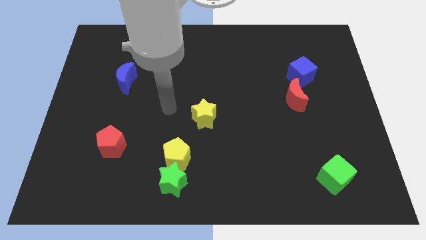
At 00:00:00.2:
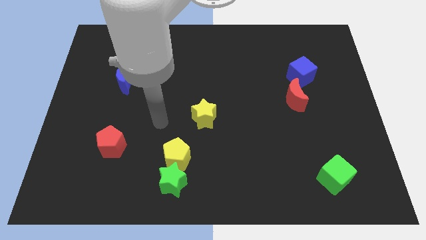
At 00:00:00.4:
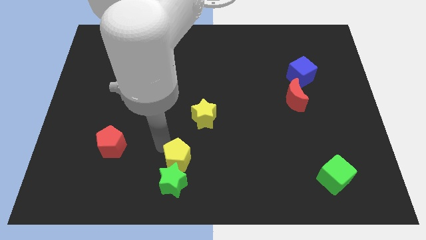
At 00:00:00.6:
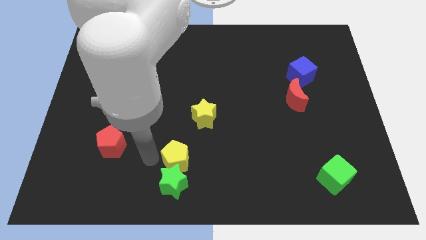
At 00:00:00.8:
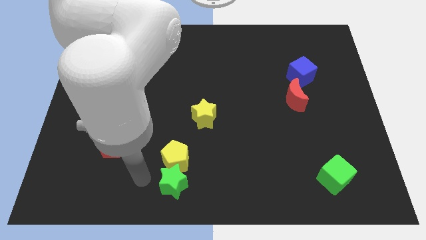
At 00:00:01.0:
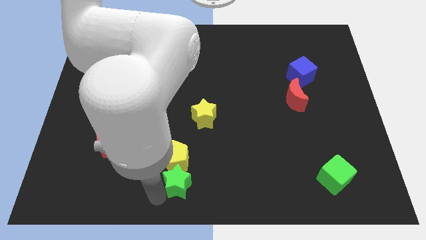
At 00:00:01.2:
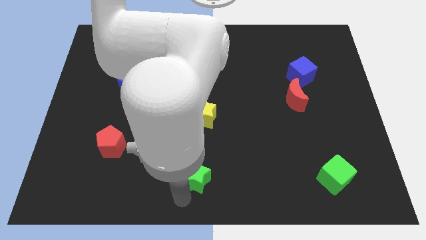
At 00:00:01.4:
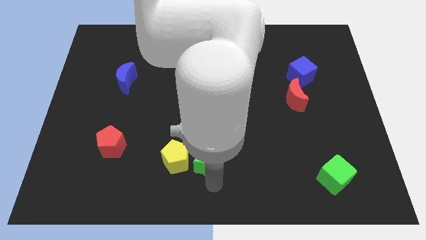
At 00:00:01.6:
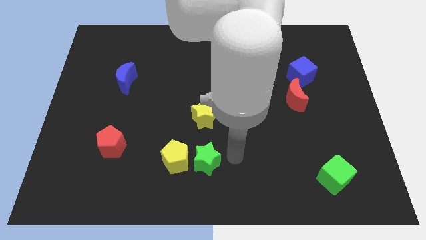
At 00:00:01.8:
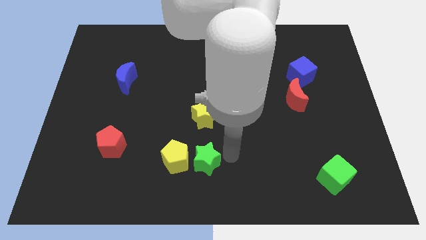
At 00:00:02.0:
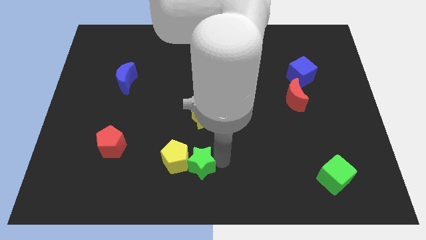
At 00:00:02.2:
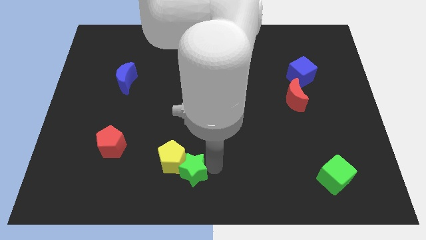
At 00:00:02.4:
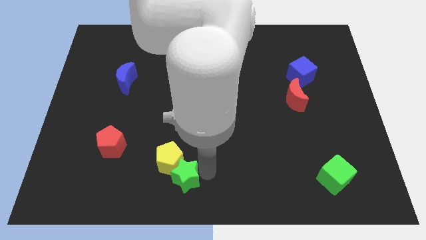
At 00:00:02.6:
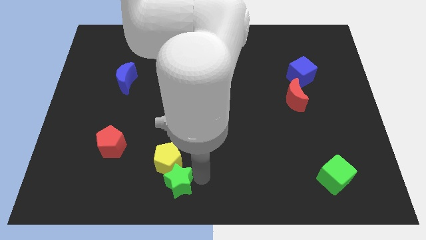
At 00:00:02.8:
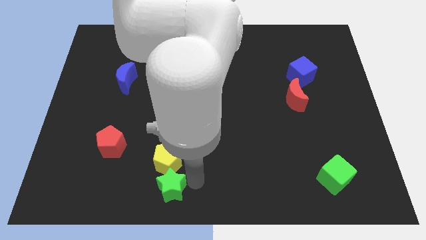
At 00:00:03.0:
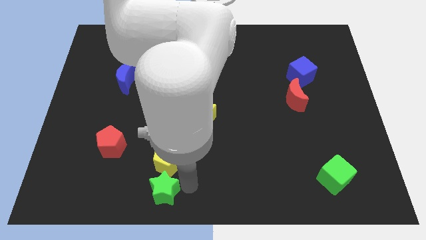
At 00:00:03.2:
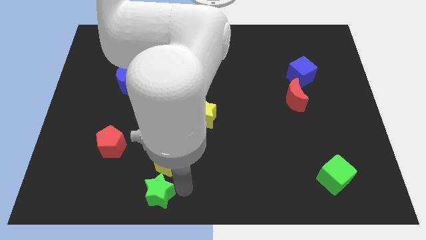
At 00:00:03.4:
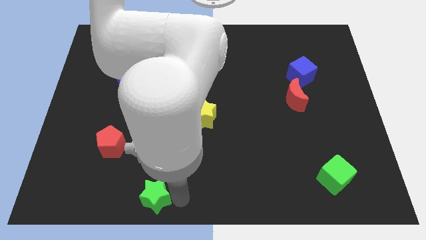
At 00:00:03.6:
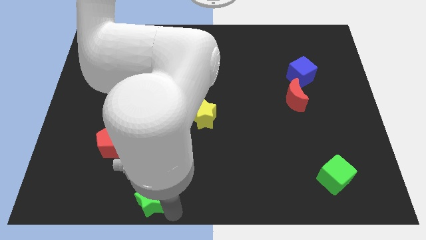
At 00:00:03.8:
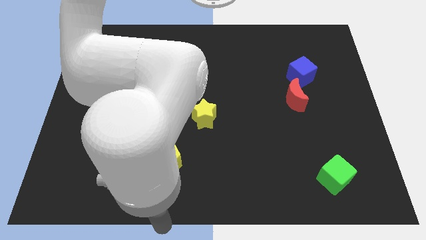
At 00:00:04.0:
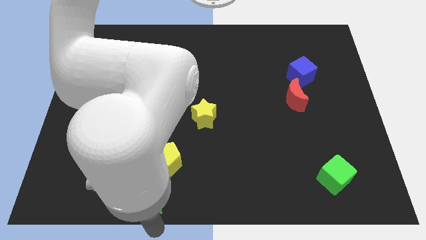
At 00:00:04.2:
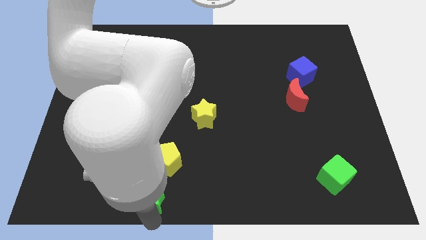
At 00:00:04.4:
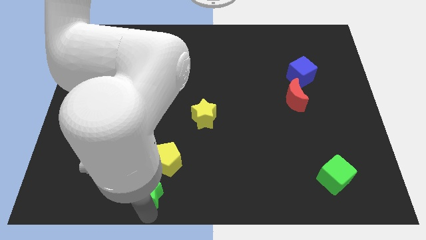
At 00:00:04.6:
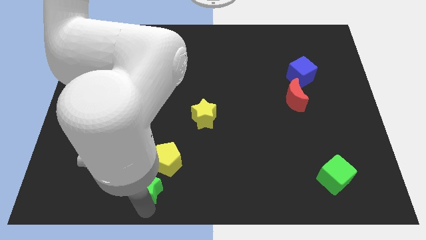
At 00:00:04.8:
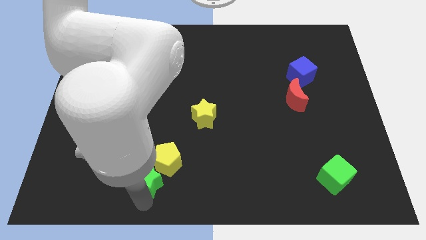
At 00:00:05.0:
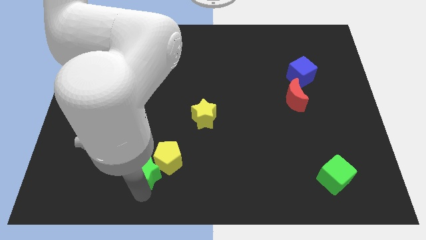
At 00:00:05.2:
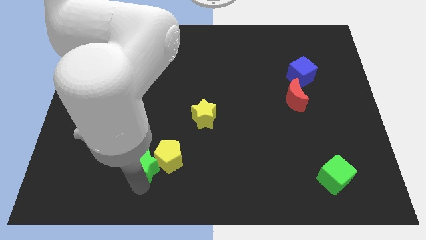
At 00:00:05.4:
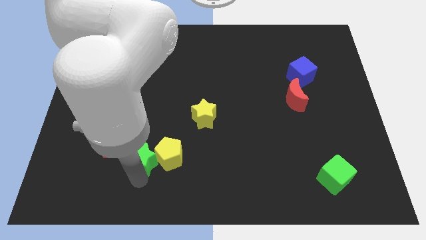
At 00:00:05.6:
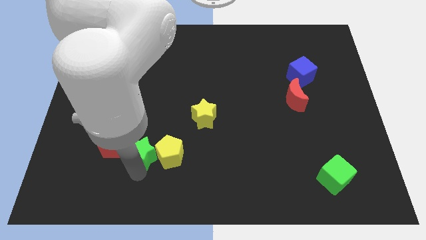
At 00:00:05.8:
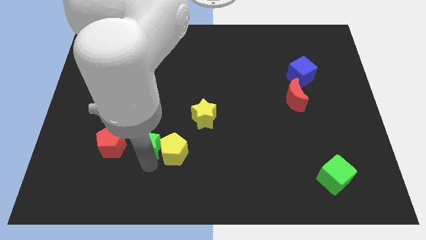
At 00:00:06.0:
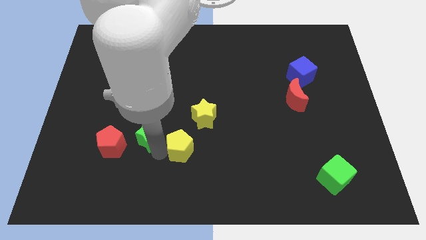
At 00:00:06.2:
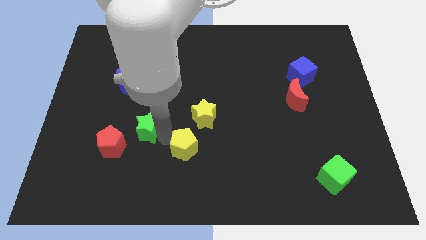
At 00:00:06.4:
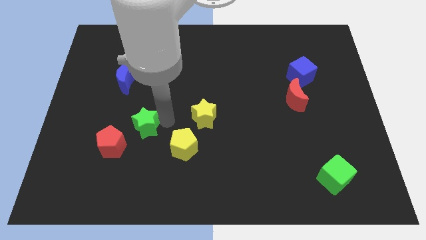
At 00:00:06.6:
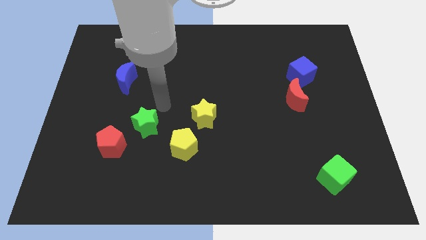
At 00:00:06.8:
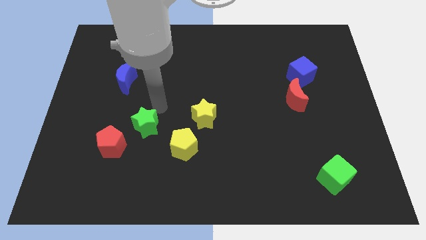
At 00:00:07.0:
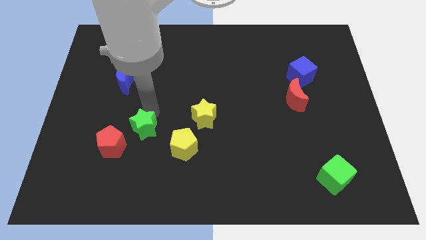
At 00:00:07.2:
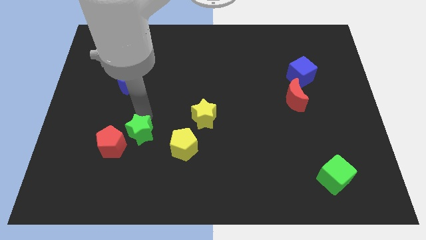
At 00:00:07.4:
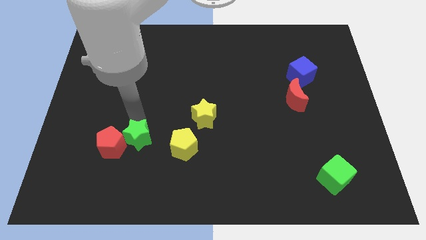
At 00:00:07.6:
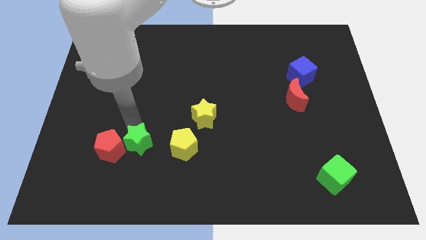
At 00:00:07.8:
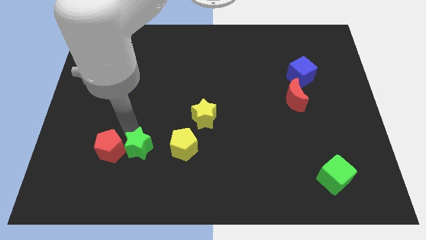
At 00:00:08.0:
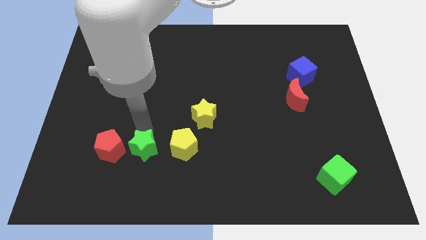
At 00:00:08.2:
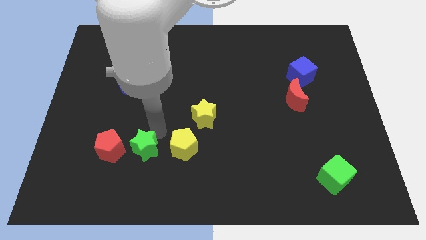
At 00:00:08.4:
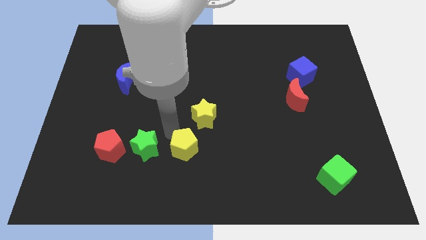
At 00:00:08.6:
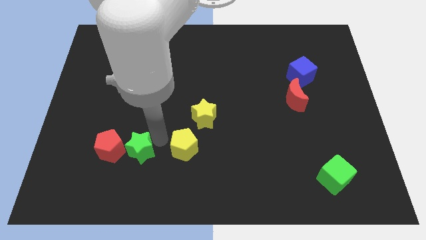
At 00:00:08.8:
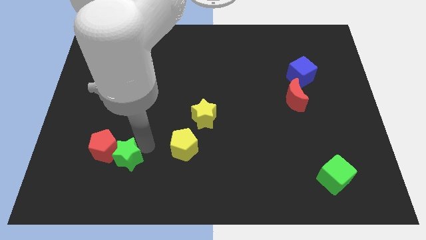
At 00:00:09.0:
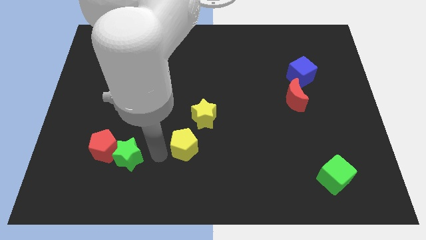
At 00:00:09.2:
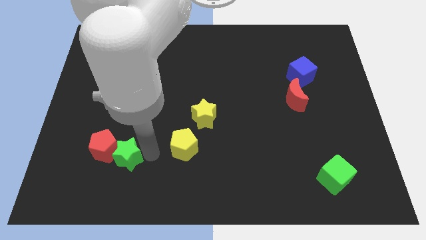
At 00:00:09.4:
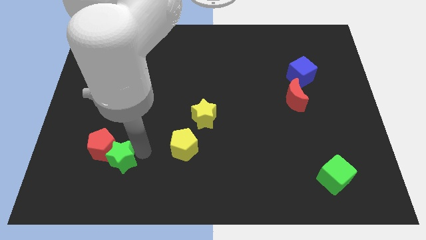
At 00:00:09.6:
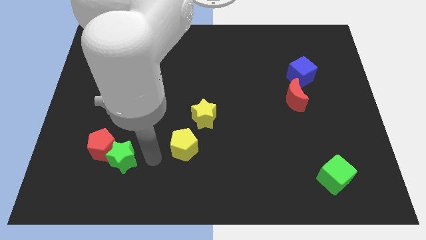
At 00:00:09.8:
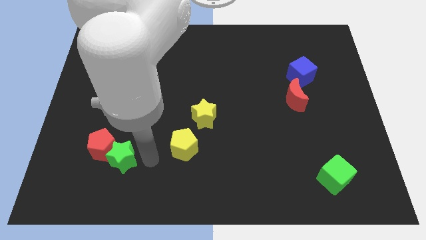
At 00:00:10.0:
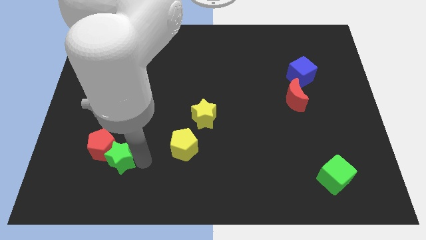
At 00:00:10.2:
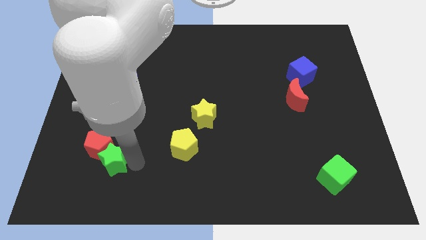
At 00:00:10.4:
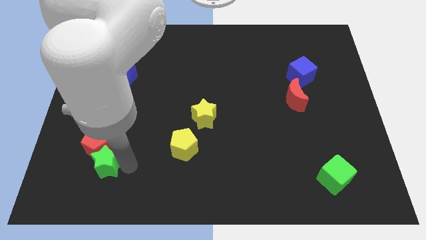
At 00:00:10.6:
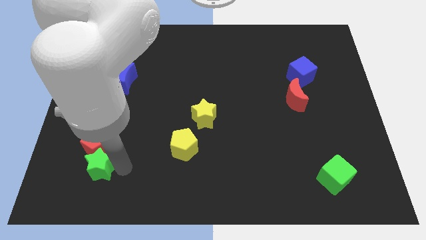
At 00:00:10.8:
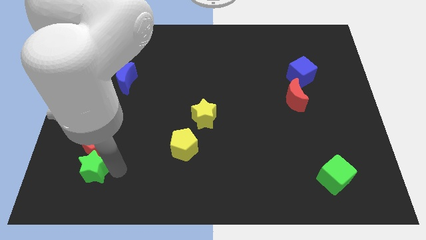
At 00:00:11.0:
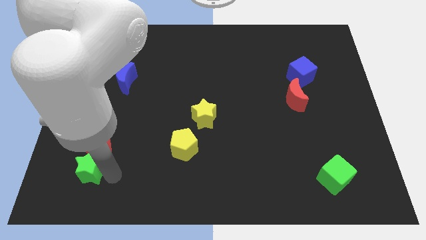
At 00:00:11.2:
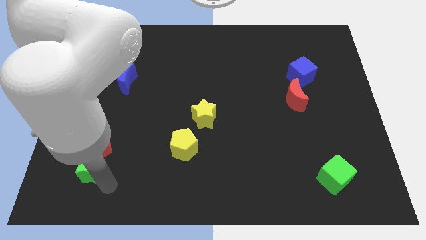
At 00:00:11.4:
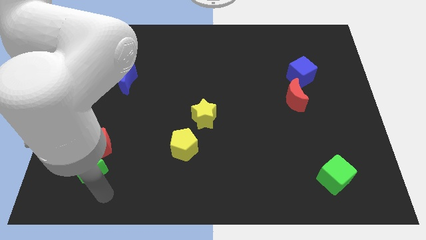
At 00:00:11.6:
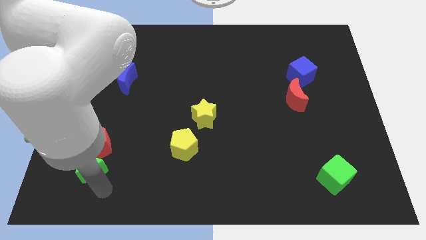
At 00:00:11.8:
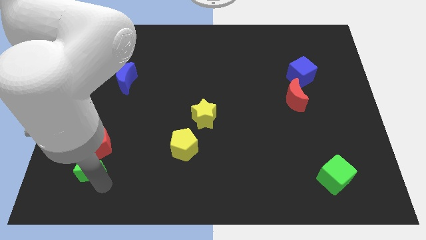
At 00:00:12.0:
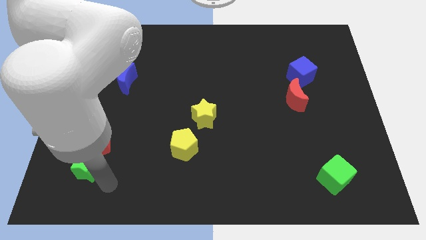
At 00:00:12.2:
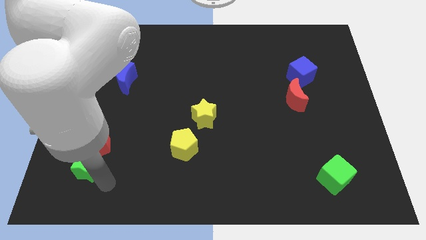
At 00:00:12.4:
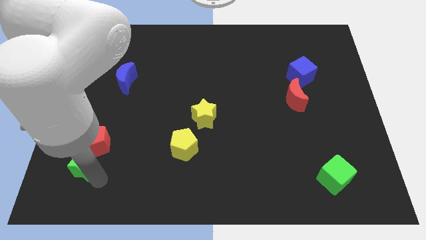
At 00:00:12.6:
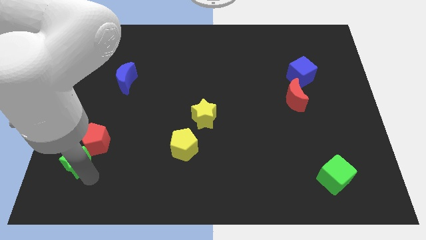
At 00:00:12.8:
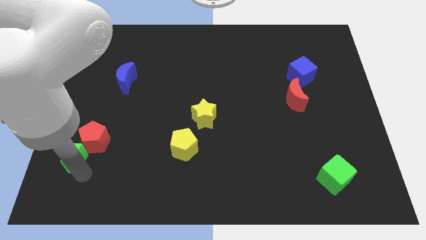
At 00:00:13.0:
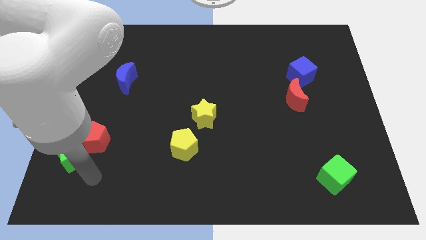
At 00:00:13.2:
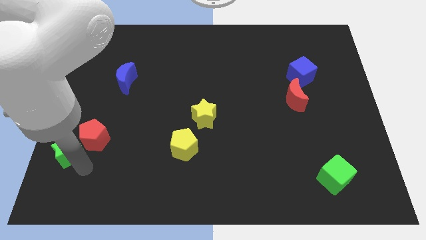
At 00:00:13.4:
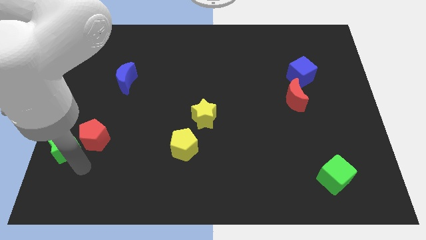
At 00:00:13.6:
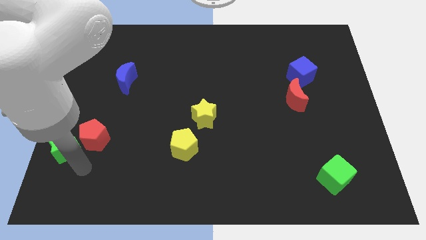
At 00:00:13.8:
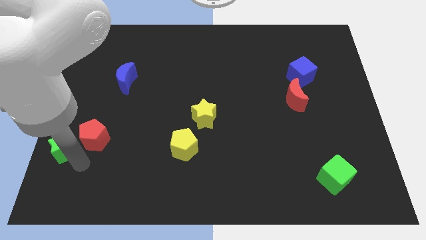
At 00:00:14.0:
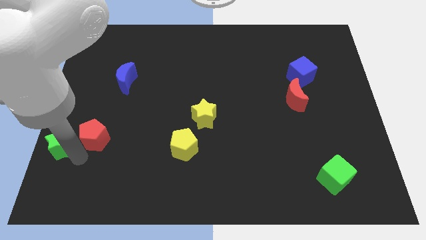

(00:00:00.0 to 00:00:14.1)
slide the green star to the center left
